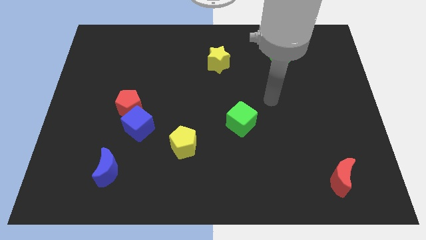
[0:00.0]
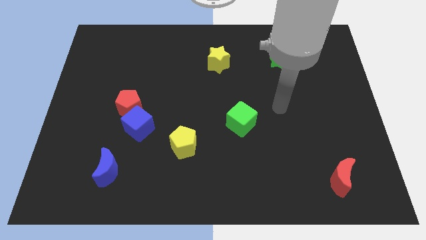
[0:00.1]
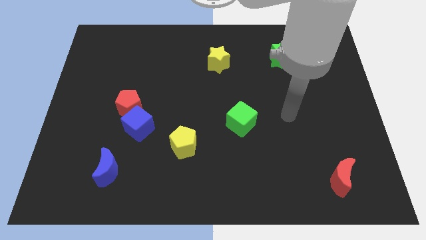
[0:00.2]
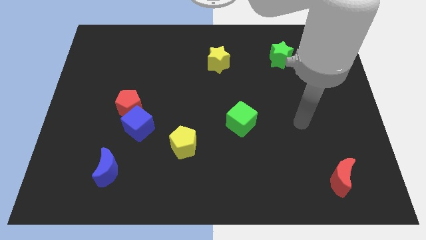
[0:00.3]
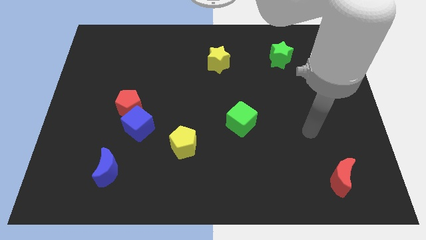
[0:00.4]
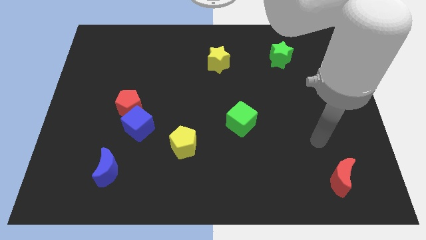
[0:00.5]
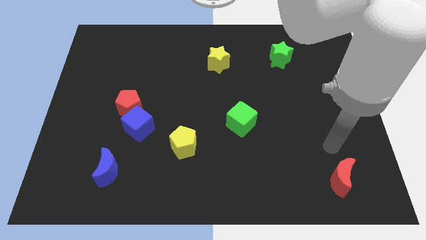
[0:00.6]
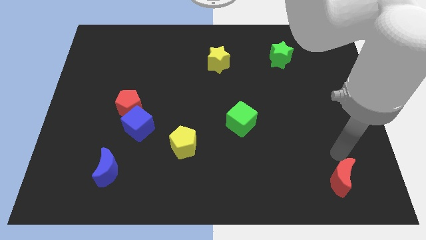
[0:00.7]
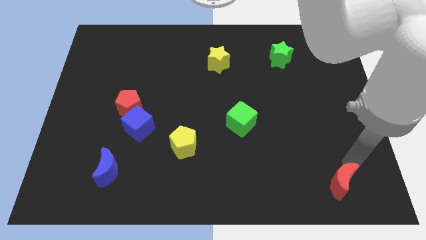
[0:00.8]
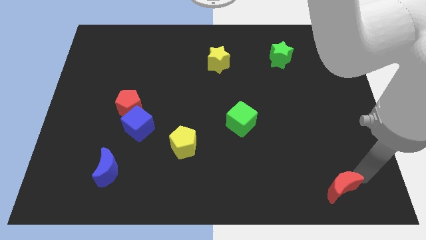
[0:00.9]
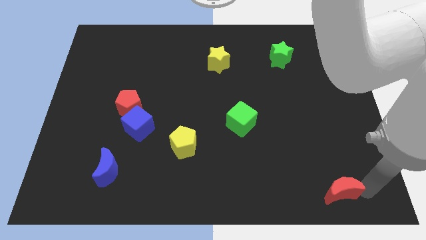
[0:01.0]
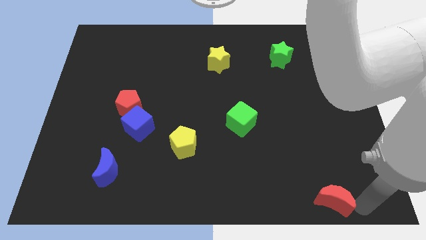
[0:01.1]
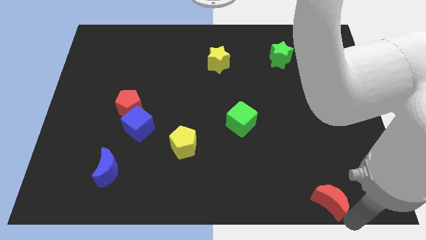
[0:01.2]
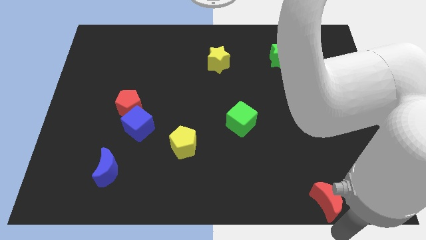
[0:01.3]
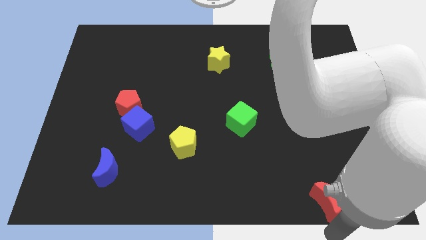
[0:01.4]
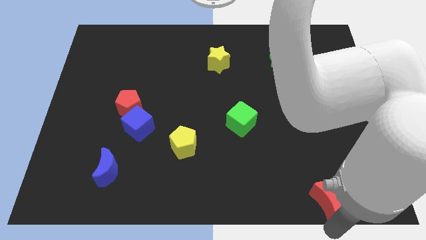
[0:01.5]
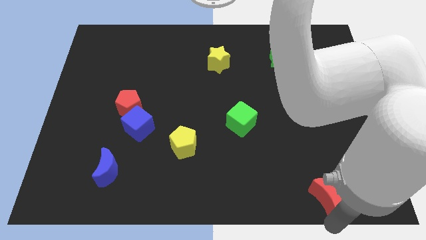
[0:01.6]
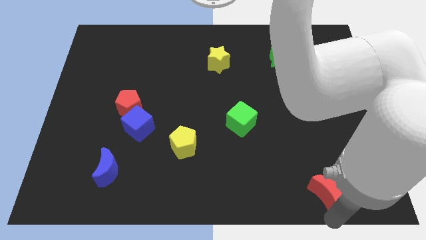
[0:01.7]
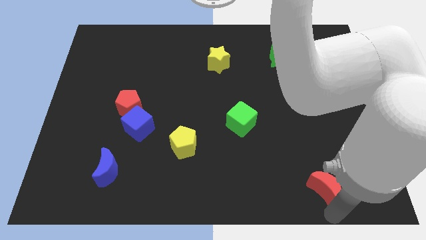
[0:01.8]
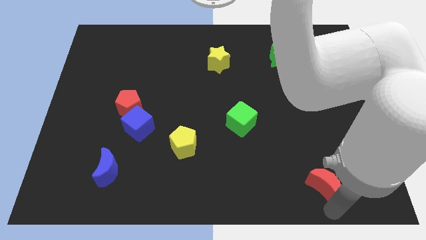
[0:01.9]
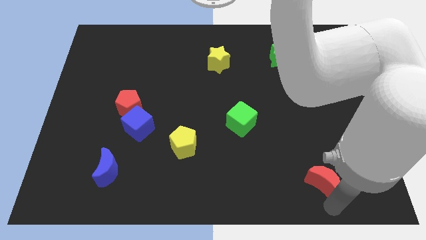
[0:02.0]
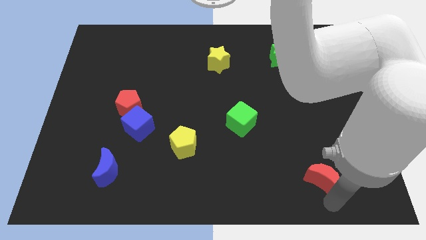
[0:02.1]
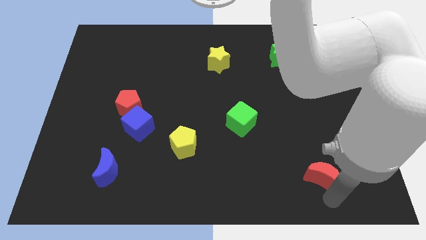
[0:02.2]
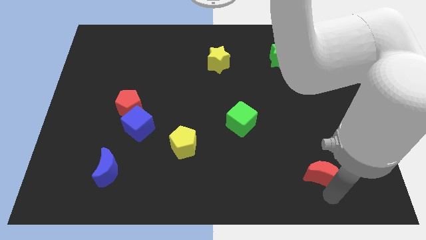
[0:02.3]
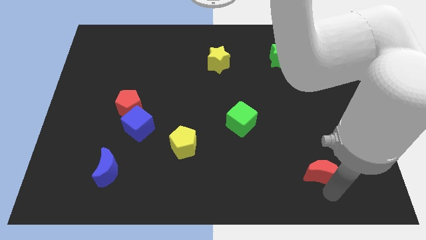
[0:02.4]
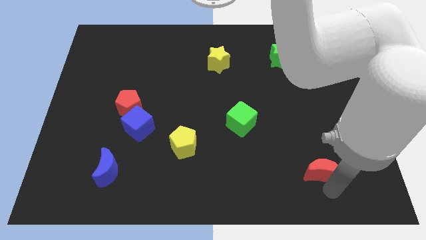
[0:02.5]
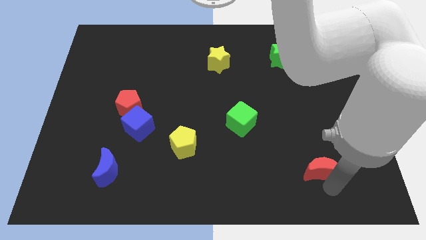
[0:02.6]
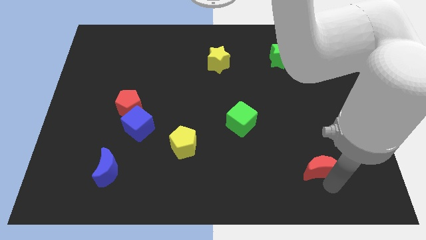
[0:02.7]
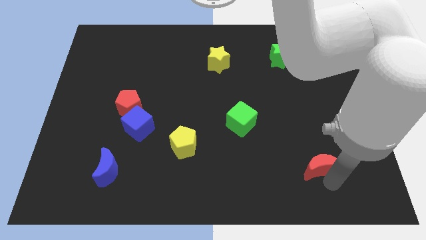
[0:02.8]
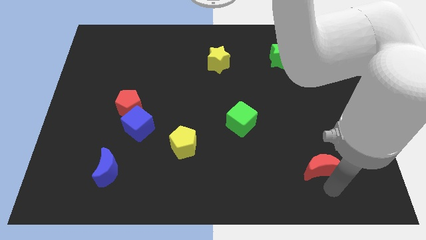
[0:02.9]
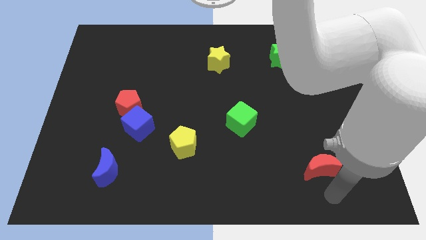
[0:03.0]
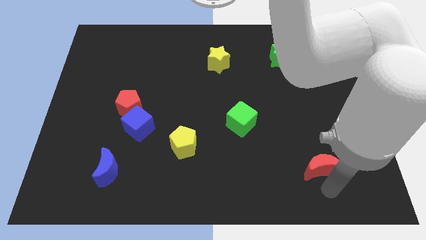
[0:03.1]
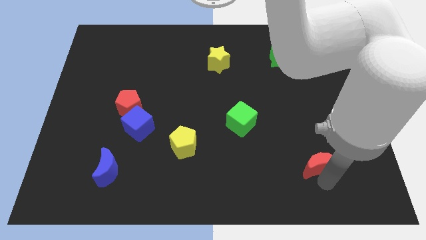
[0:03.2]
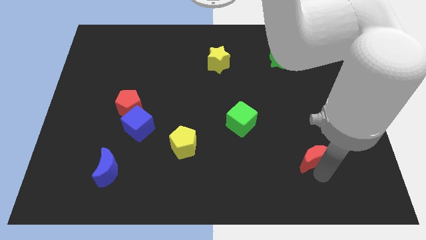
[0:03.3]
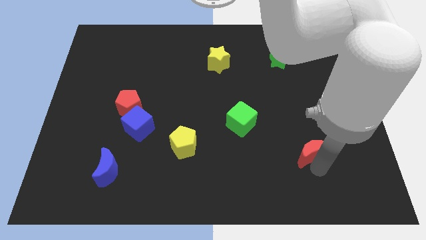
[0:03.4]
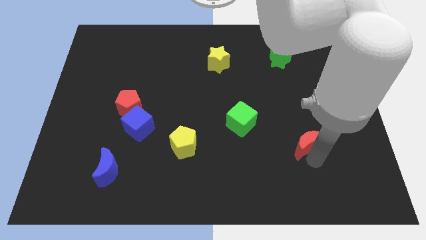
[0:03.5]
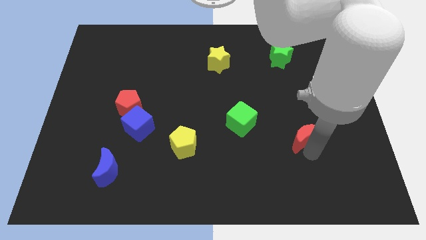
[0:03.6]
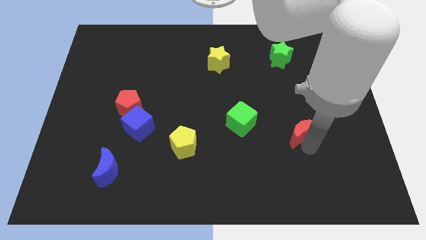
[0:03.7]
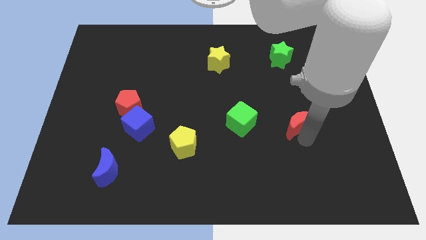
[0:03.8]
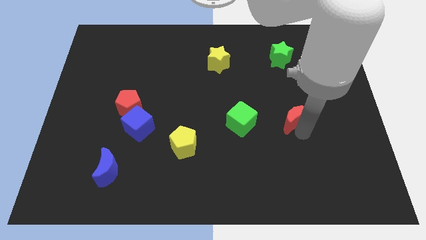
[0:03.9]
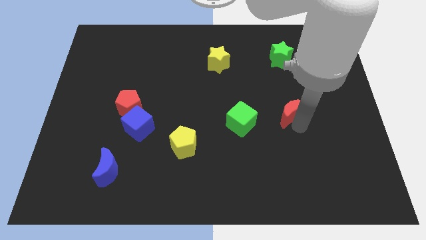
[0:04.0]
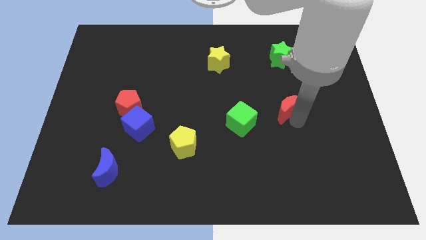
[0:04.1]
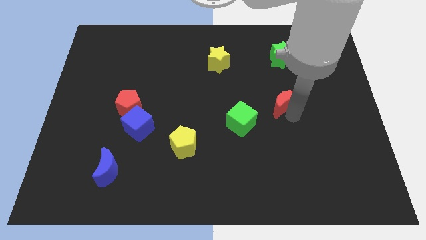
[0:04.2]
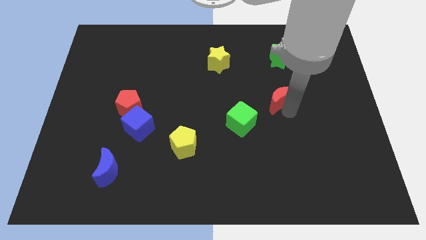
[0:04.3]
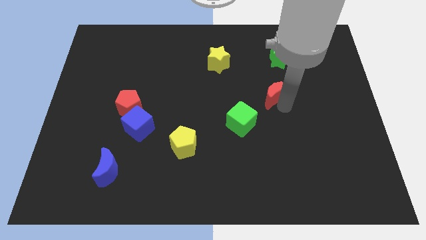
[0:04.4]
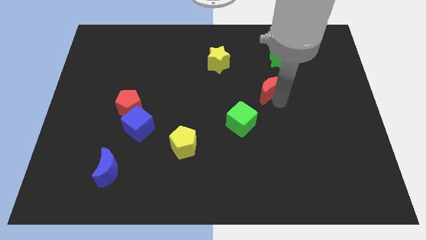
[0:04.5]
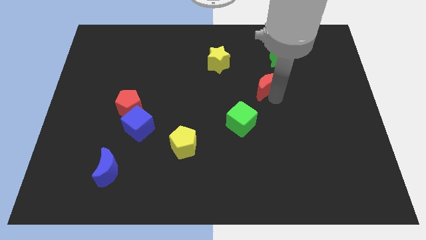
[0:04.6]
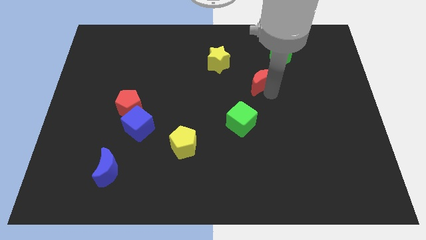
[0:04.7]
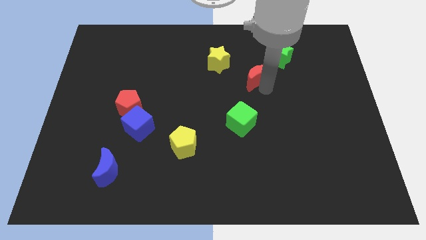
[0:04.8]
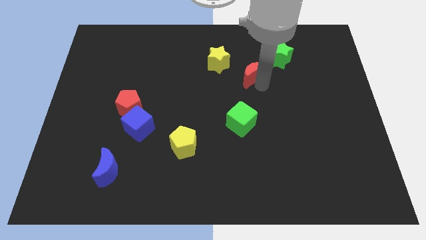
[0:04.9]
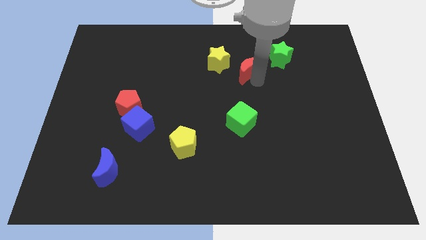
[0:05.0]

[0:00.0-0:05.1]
push the red moon to the left of the green star

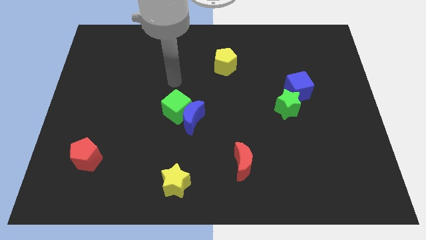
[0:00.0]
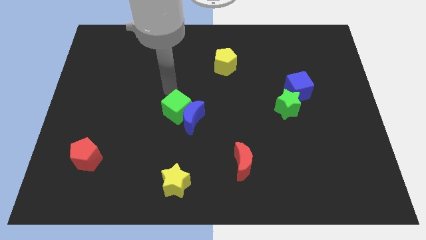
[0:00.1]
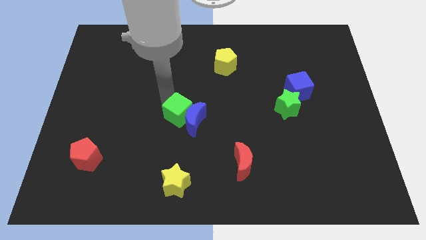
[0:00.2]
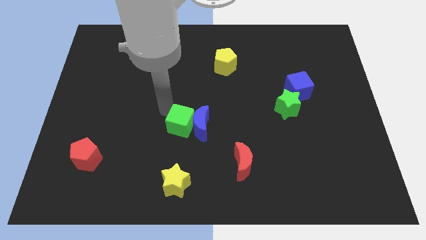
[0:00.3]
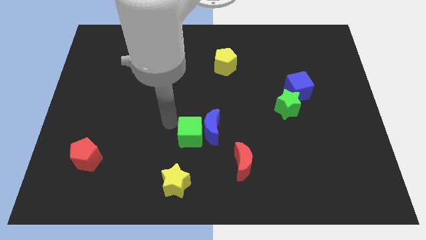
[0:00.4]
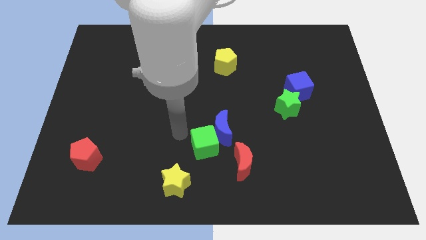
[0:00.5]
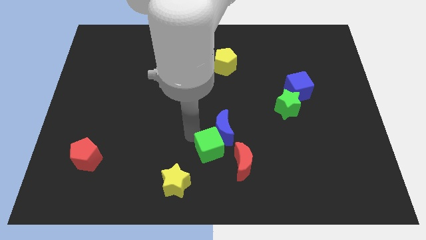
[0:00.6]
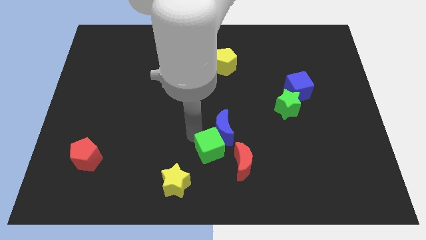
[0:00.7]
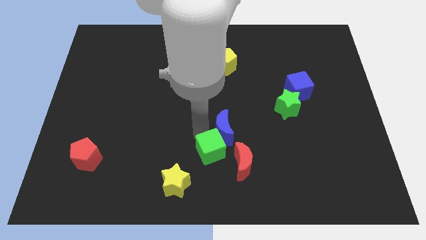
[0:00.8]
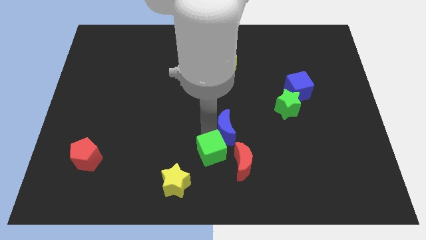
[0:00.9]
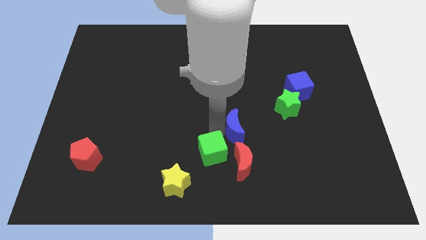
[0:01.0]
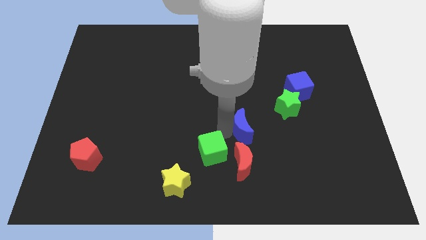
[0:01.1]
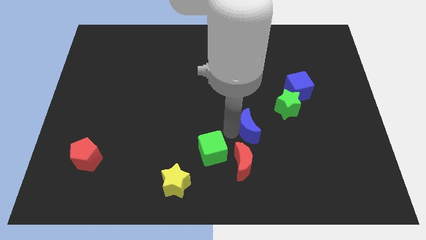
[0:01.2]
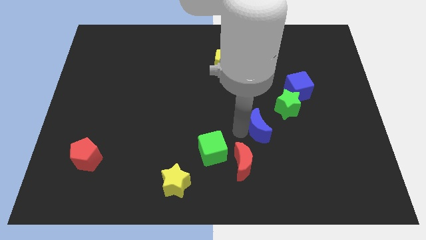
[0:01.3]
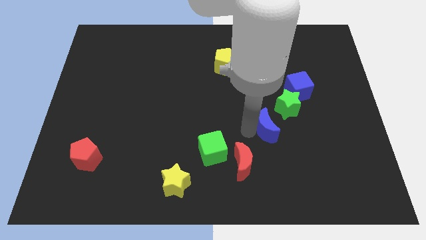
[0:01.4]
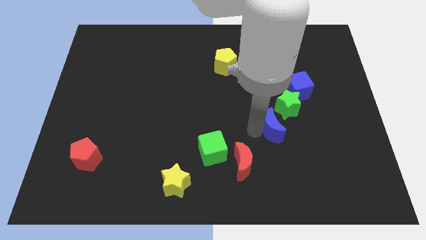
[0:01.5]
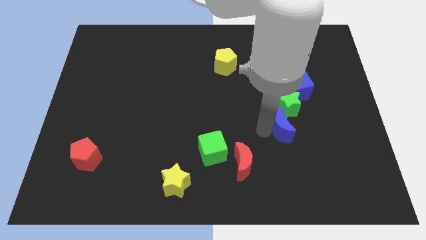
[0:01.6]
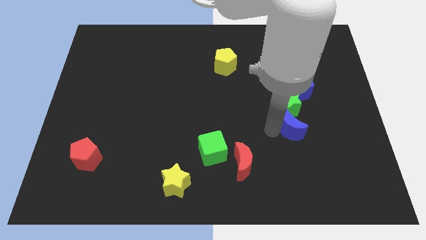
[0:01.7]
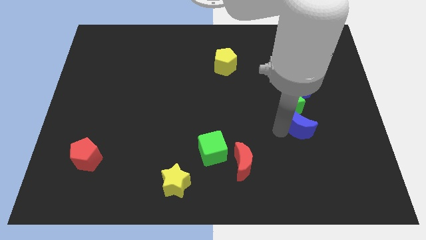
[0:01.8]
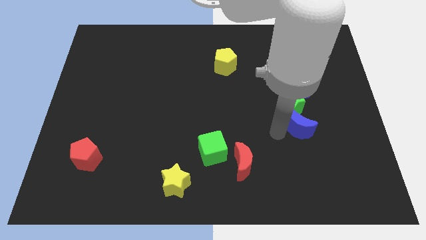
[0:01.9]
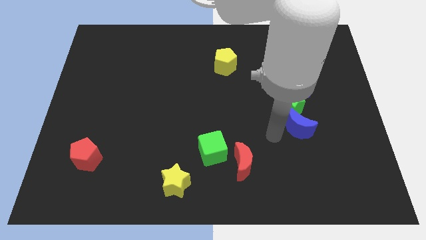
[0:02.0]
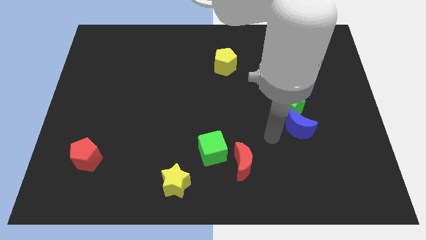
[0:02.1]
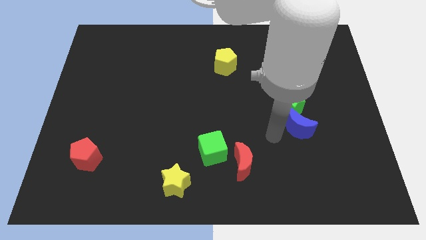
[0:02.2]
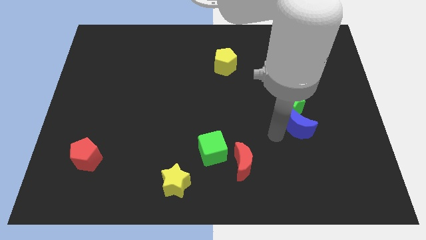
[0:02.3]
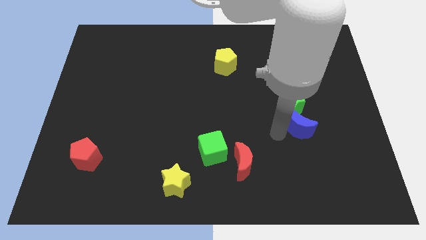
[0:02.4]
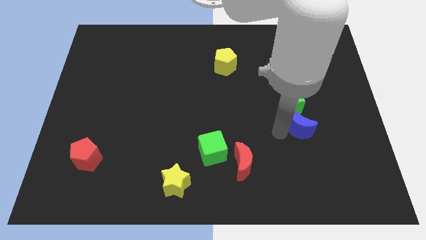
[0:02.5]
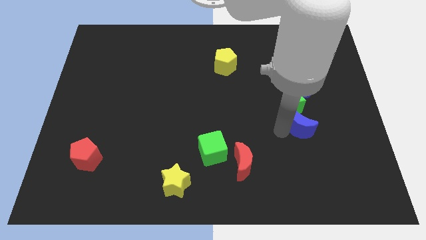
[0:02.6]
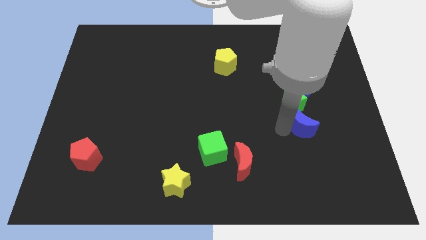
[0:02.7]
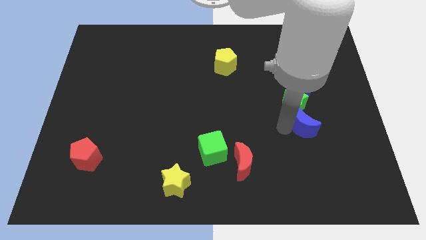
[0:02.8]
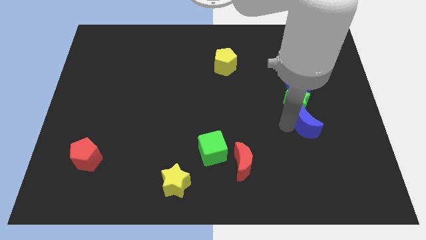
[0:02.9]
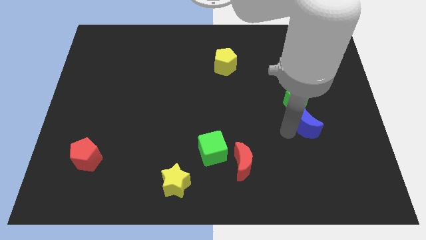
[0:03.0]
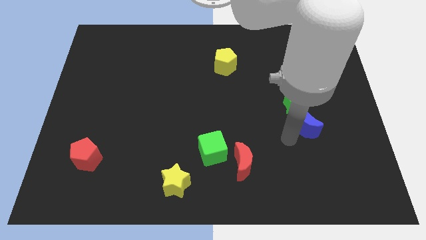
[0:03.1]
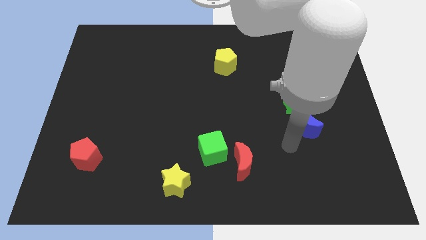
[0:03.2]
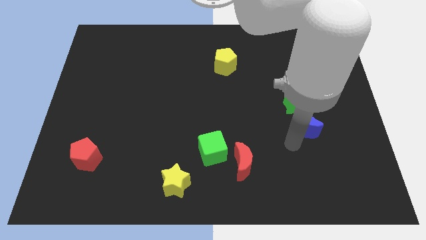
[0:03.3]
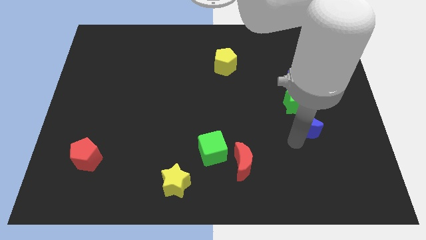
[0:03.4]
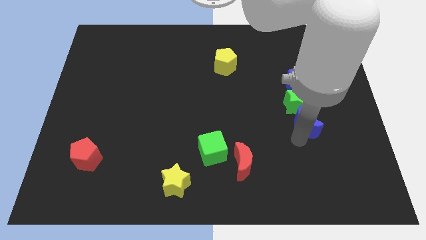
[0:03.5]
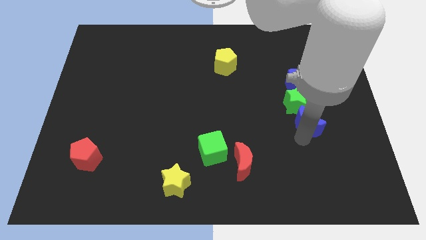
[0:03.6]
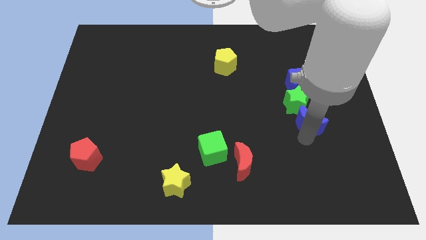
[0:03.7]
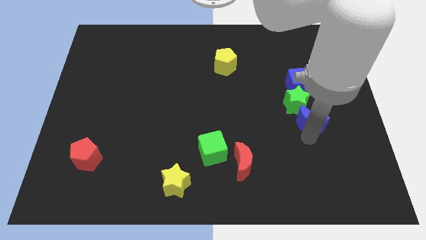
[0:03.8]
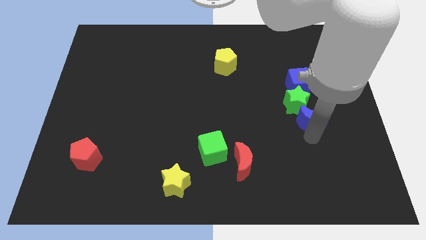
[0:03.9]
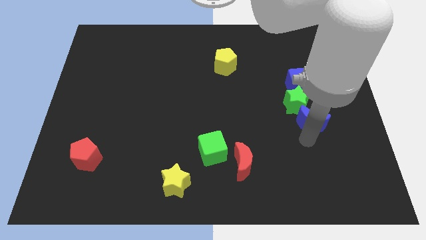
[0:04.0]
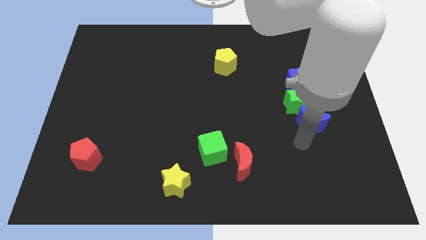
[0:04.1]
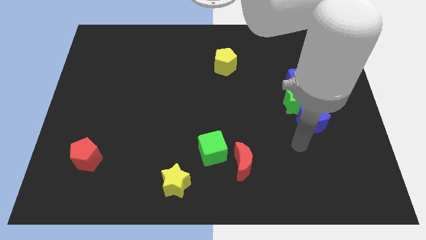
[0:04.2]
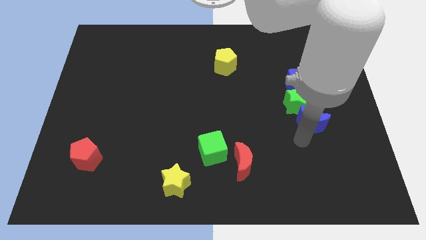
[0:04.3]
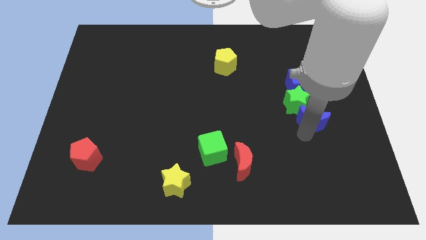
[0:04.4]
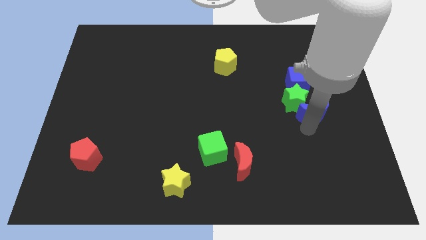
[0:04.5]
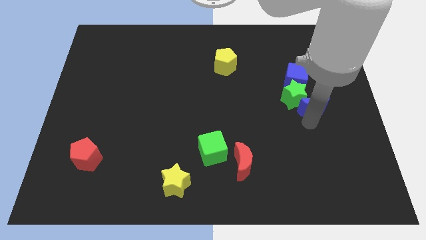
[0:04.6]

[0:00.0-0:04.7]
move the blue moon to the bottom right of the blue cube
